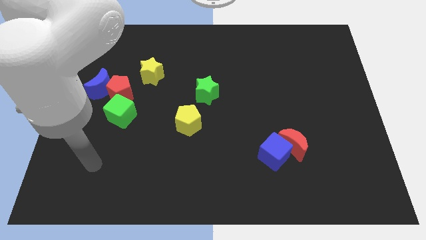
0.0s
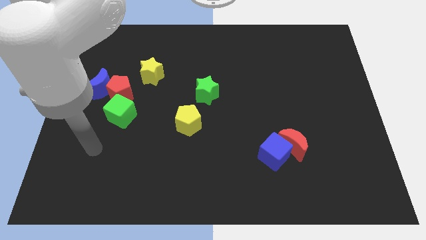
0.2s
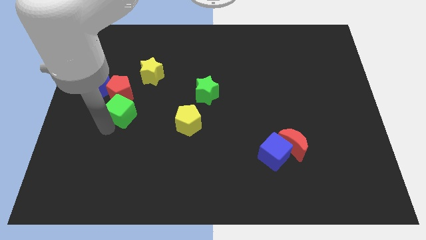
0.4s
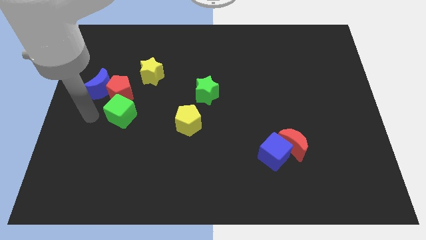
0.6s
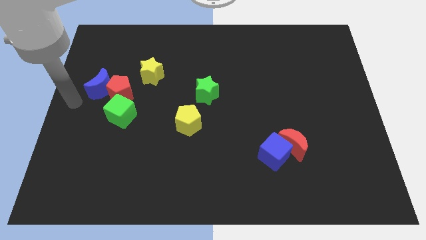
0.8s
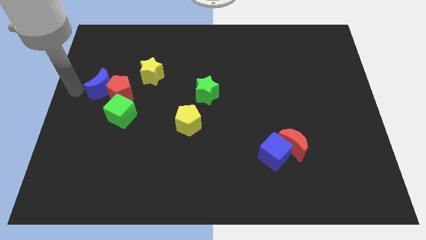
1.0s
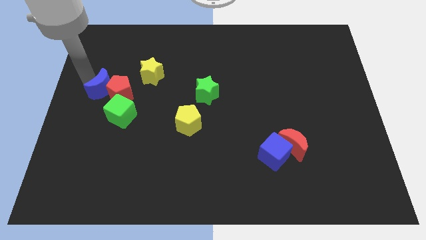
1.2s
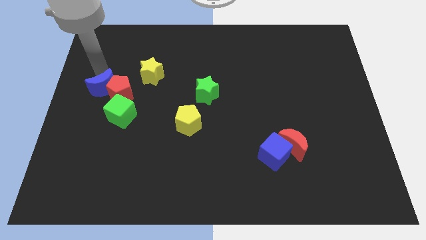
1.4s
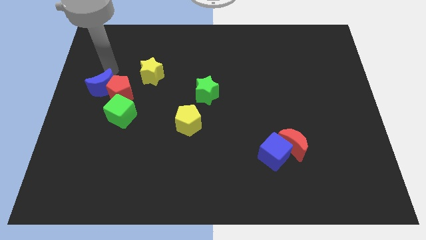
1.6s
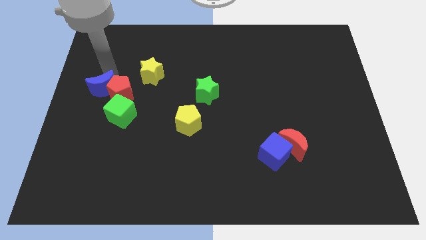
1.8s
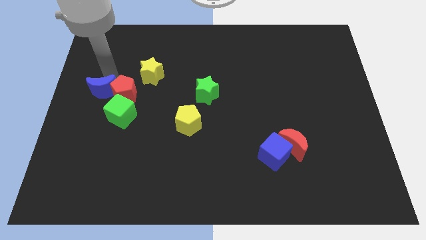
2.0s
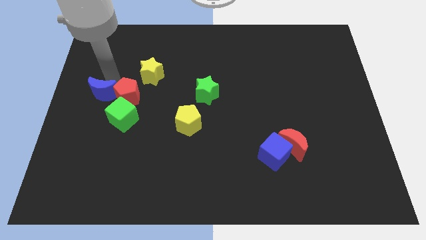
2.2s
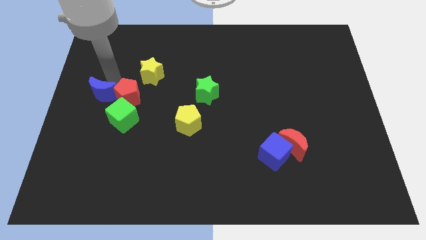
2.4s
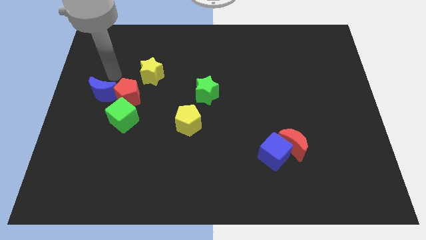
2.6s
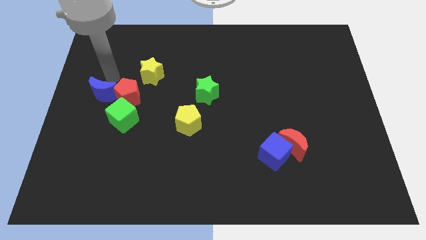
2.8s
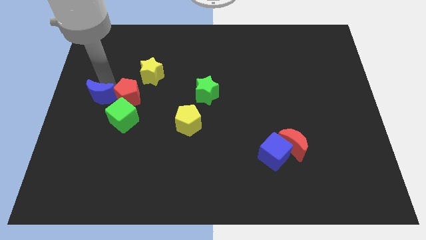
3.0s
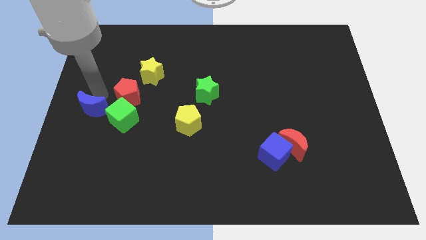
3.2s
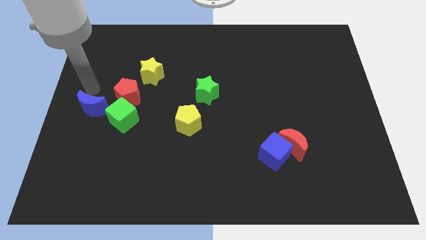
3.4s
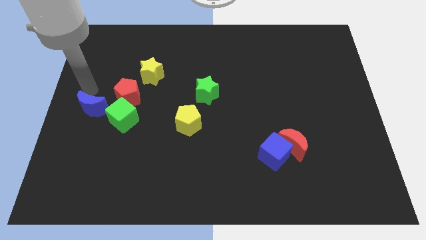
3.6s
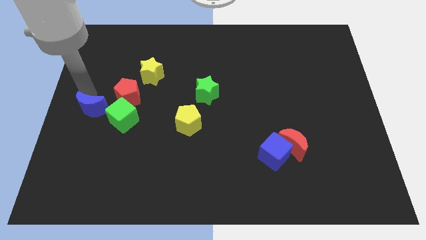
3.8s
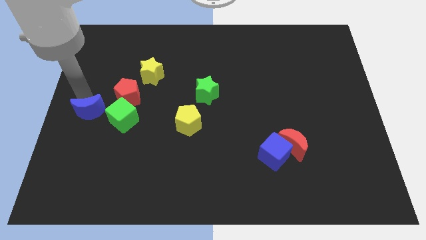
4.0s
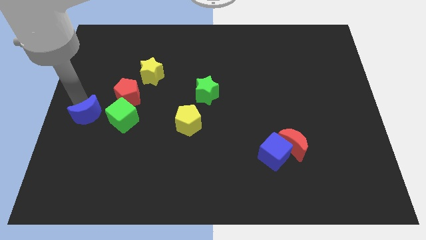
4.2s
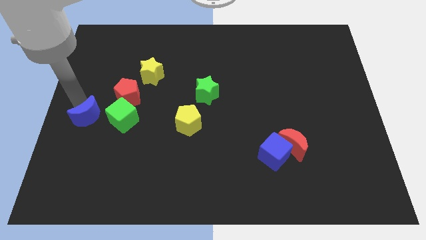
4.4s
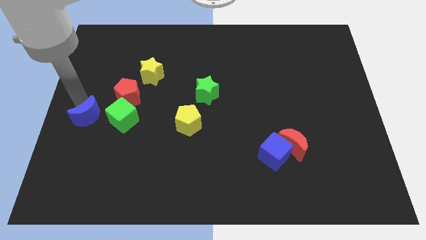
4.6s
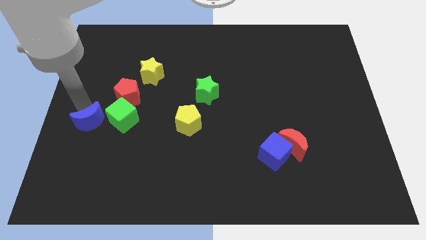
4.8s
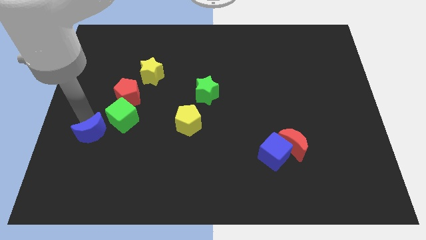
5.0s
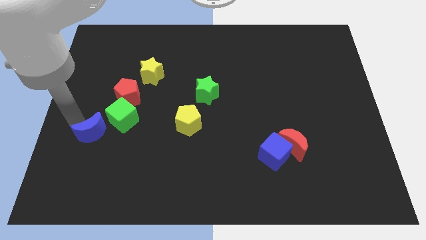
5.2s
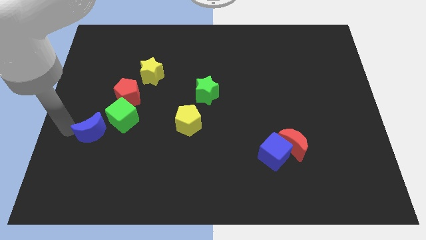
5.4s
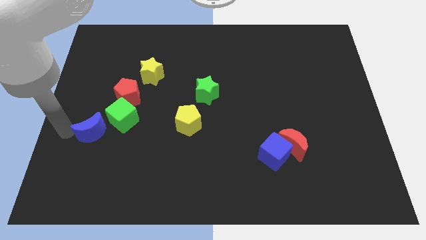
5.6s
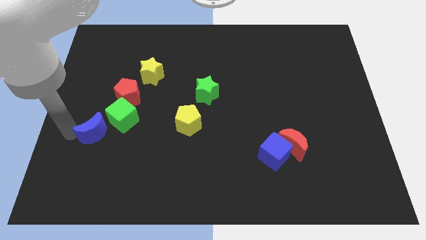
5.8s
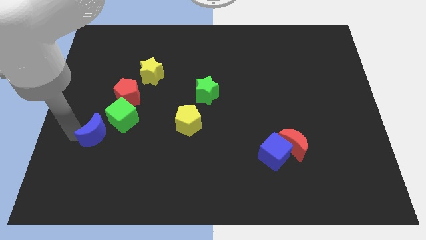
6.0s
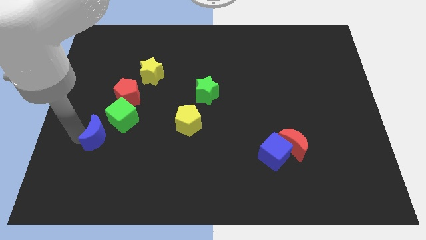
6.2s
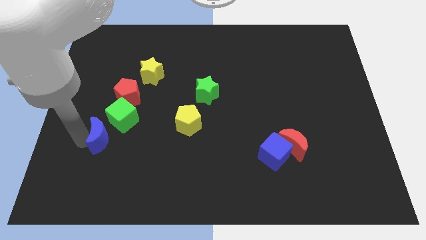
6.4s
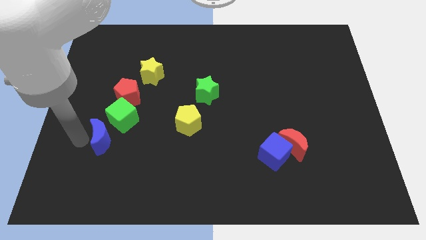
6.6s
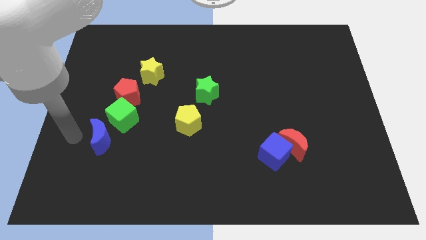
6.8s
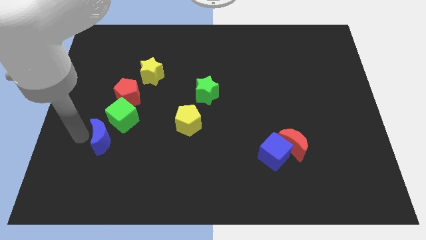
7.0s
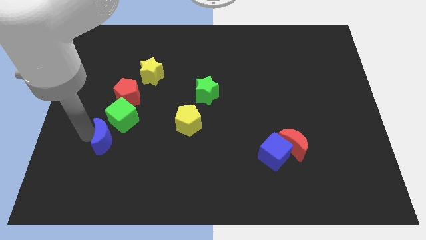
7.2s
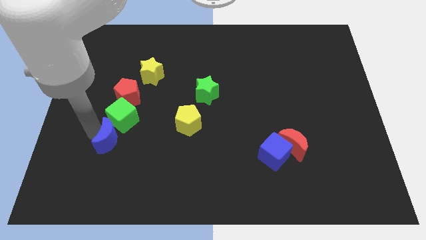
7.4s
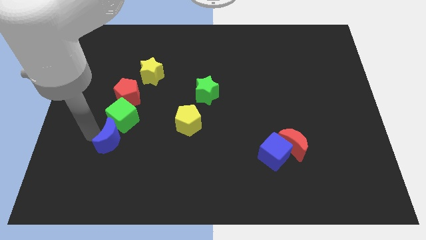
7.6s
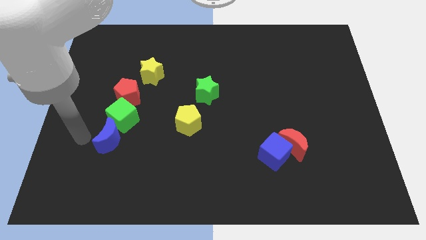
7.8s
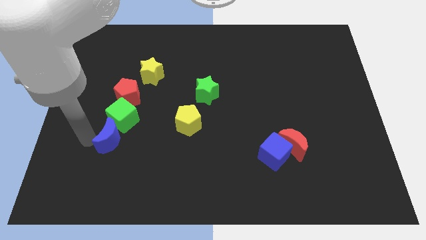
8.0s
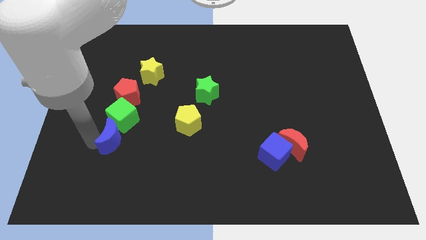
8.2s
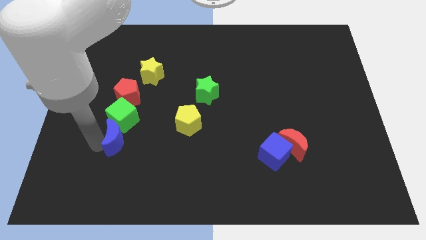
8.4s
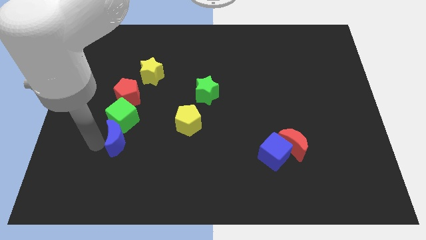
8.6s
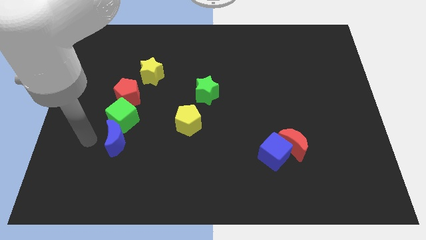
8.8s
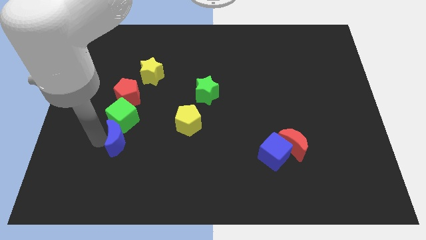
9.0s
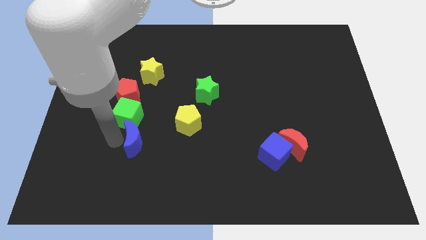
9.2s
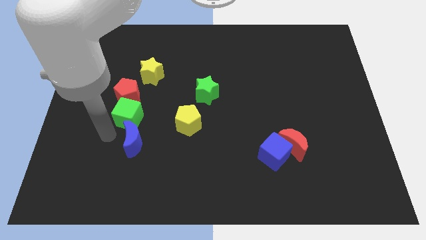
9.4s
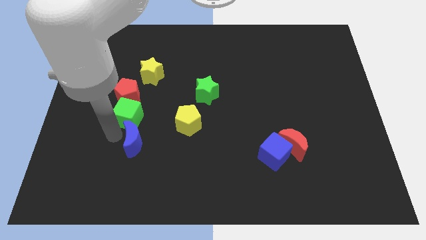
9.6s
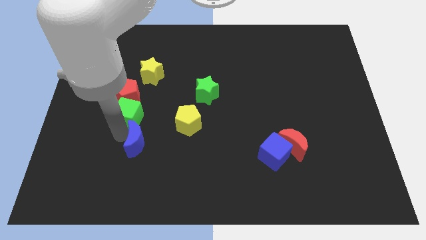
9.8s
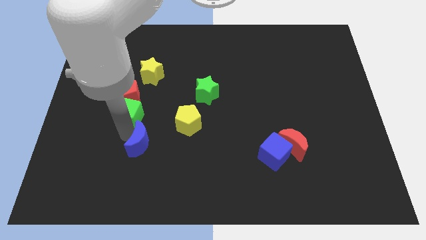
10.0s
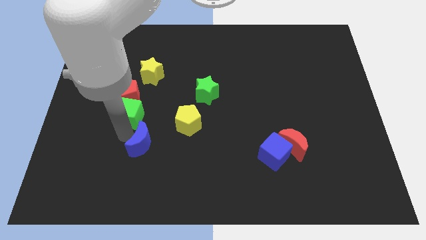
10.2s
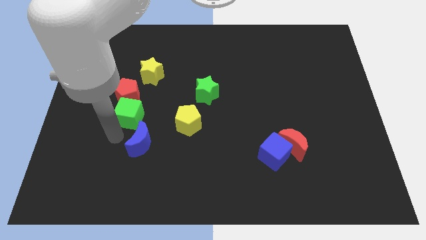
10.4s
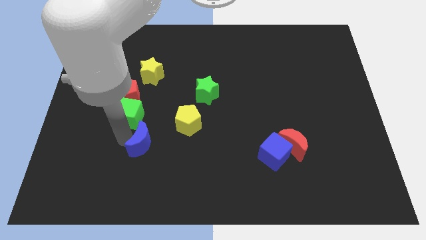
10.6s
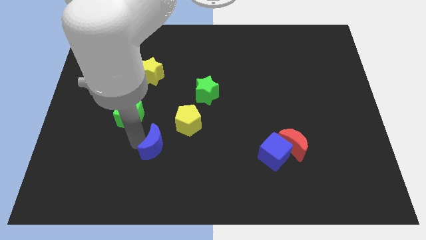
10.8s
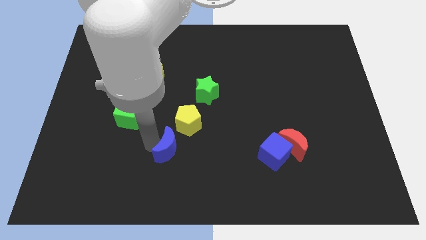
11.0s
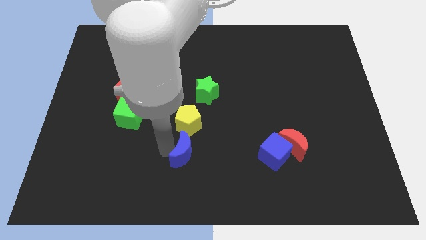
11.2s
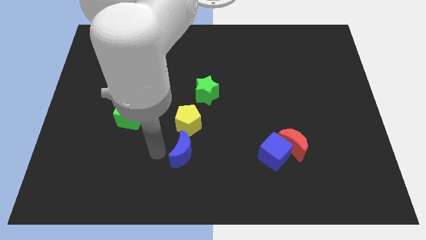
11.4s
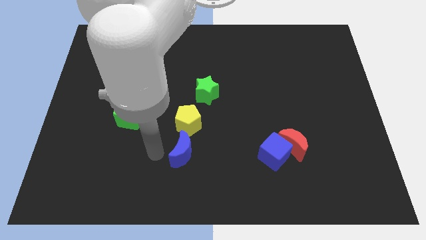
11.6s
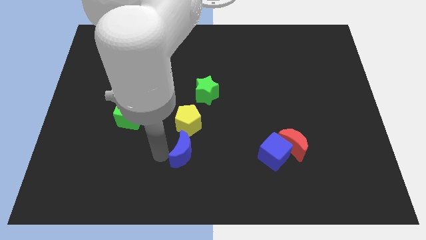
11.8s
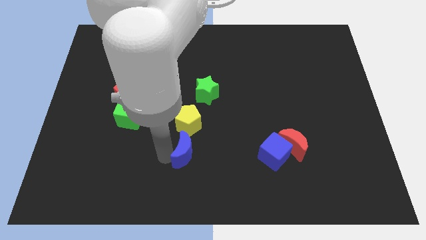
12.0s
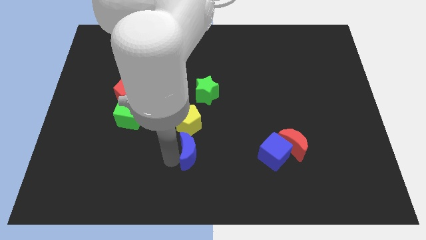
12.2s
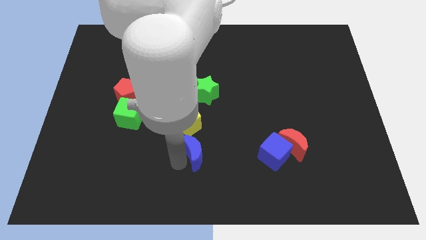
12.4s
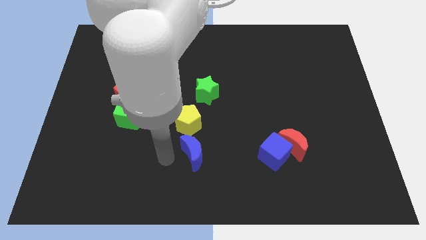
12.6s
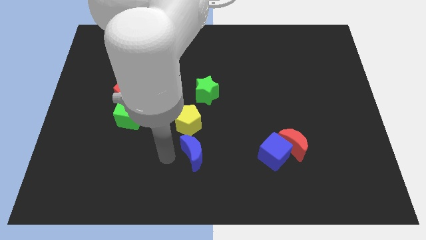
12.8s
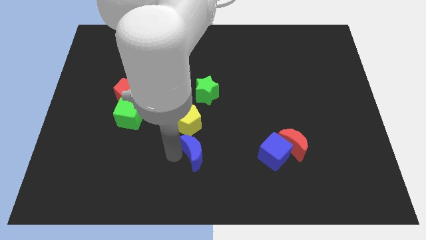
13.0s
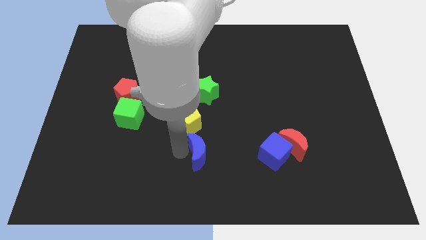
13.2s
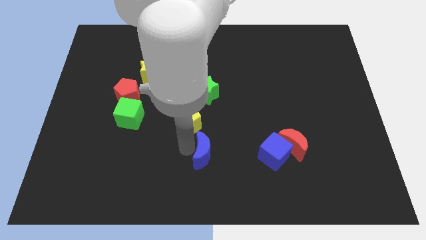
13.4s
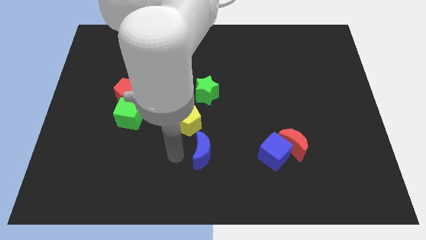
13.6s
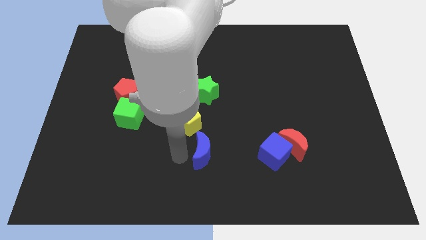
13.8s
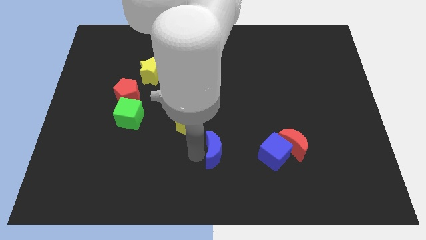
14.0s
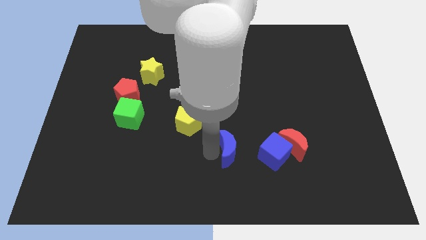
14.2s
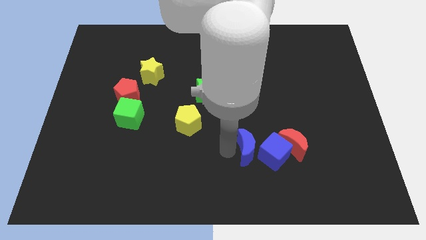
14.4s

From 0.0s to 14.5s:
put the blue moon towards the blue cube

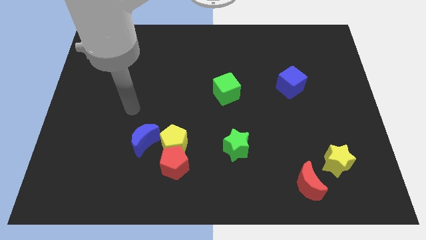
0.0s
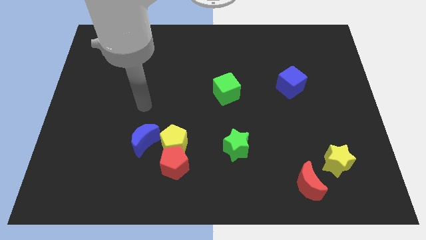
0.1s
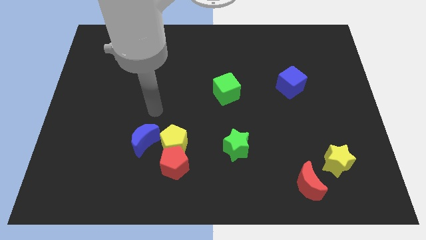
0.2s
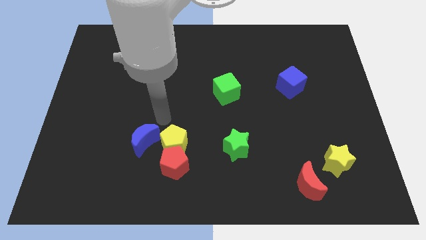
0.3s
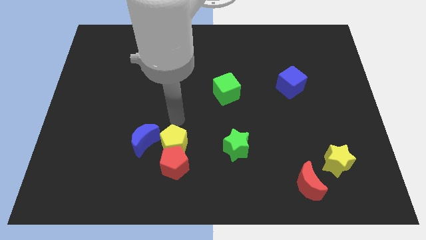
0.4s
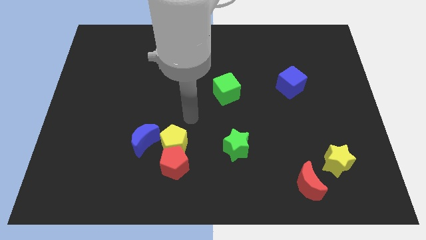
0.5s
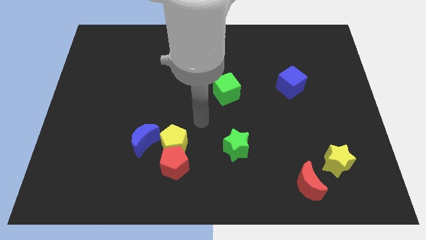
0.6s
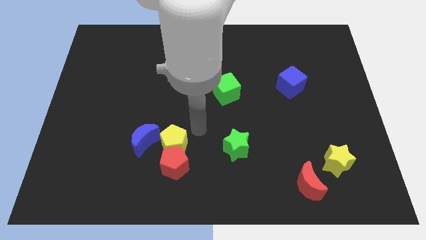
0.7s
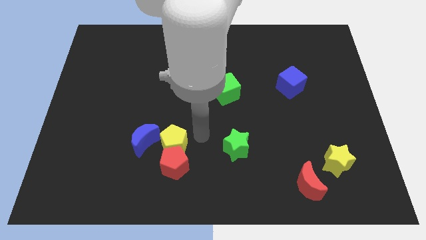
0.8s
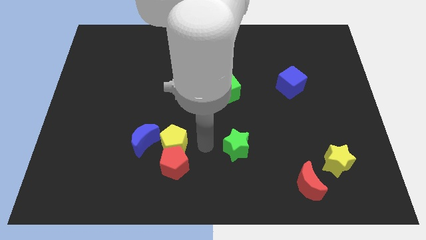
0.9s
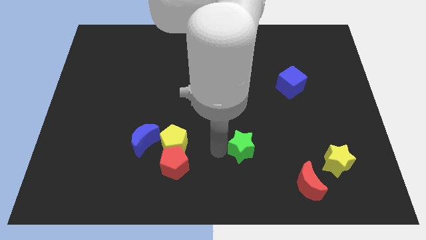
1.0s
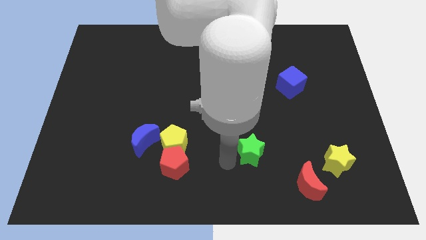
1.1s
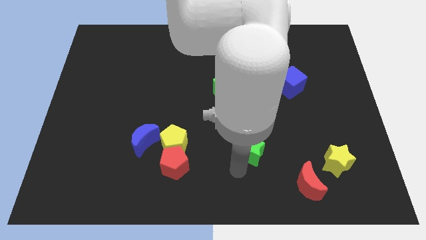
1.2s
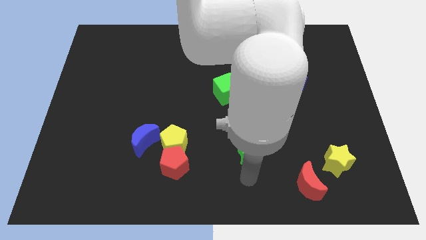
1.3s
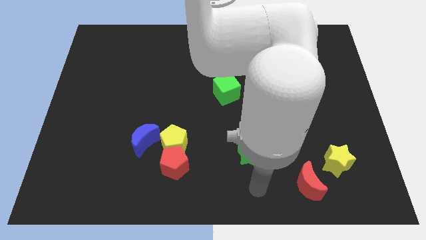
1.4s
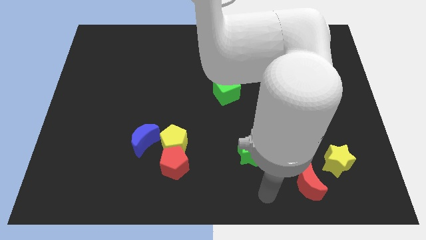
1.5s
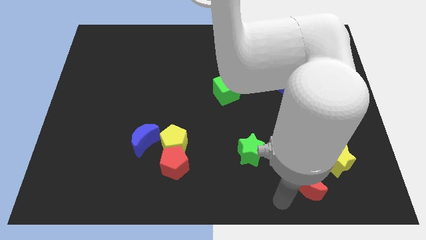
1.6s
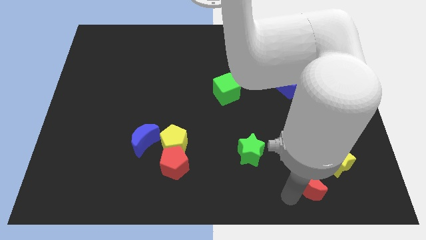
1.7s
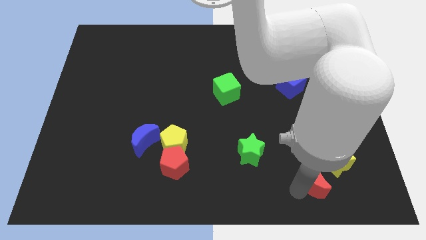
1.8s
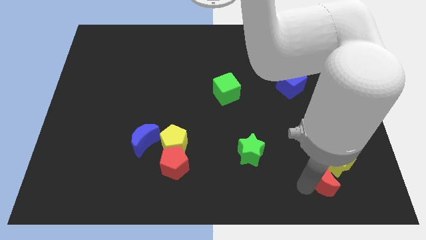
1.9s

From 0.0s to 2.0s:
slide the red moon close to the yellow star
